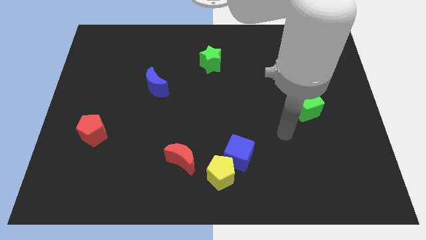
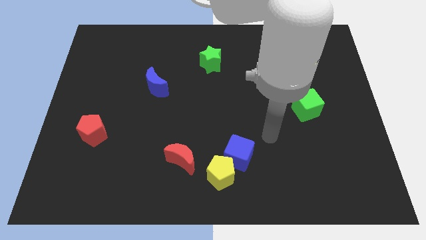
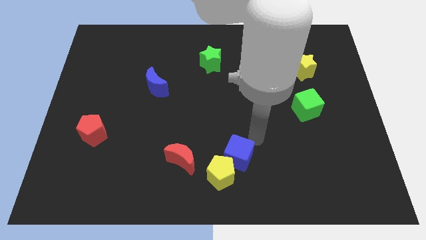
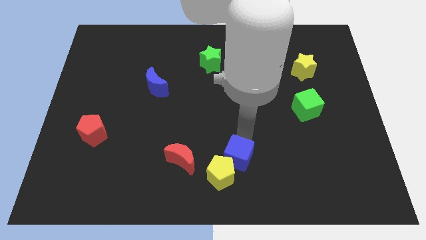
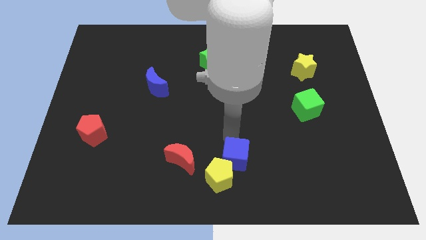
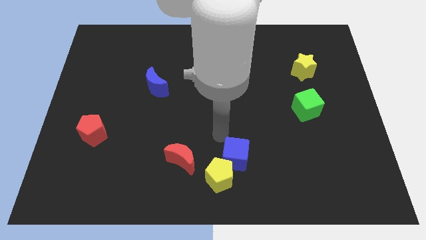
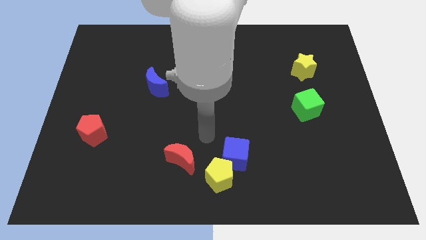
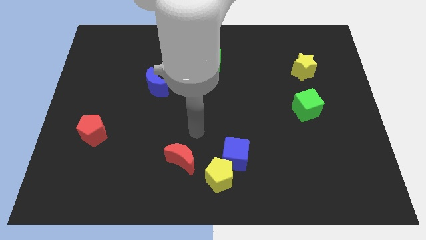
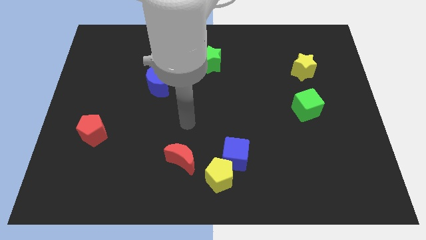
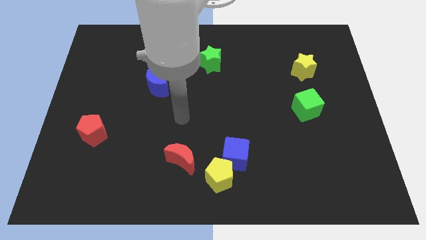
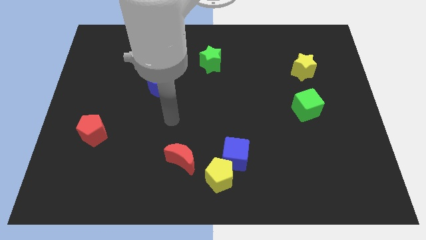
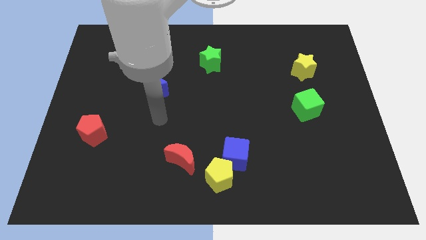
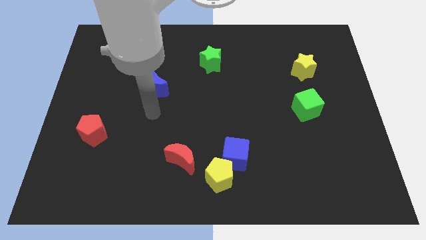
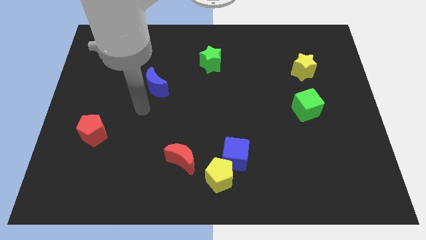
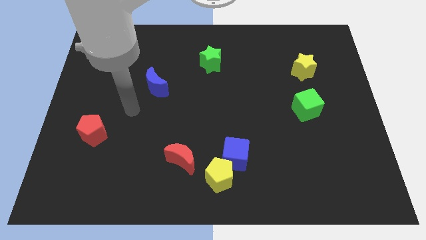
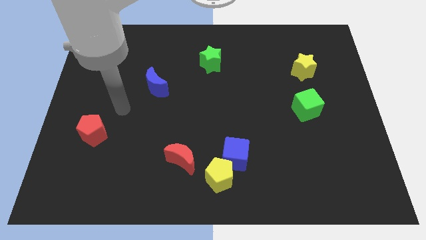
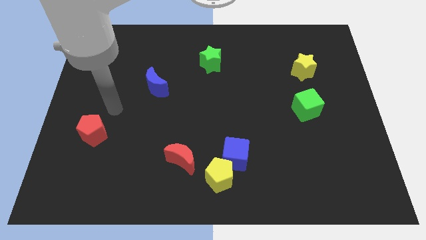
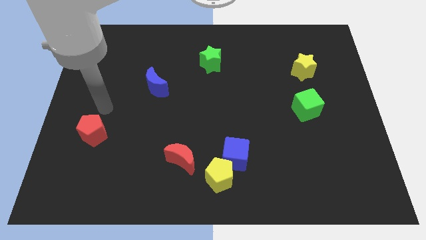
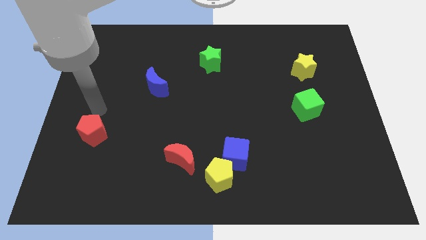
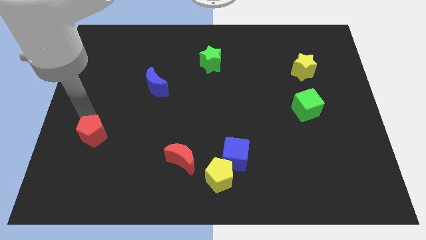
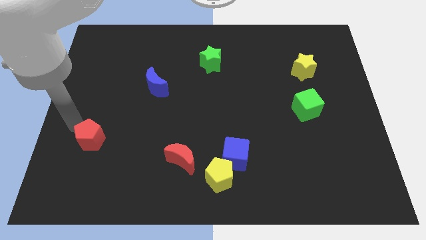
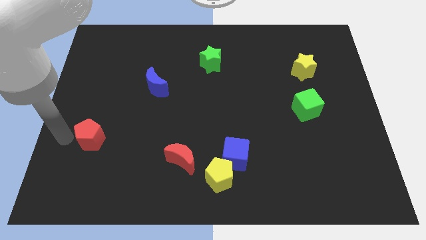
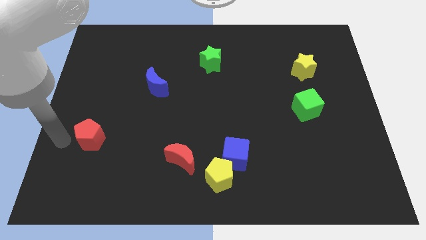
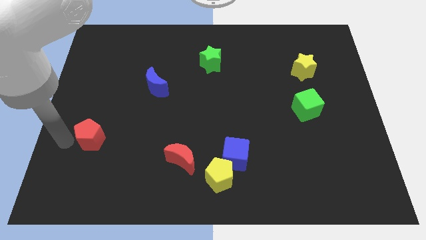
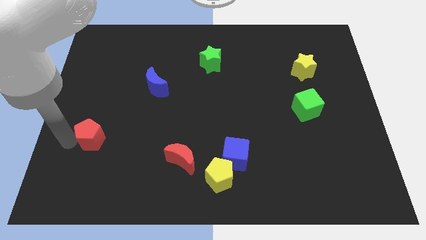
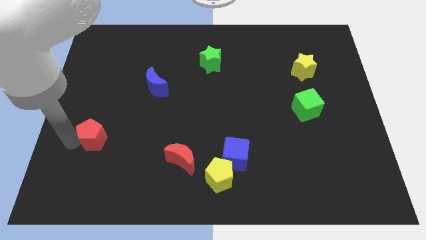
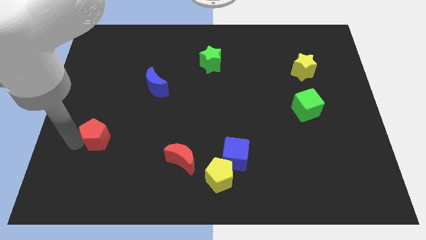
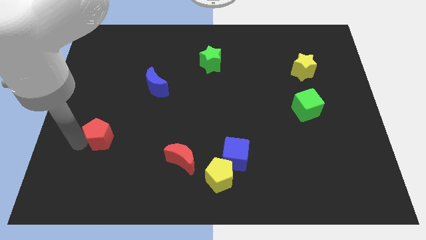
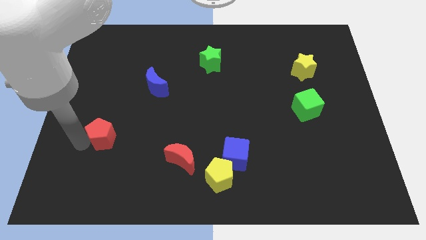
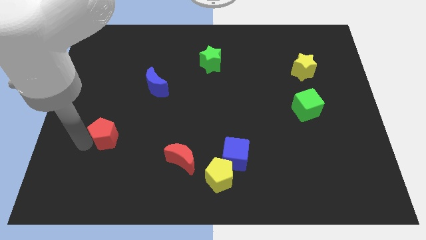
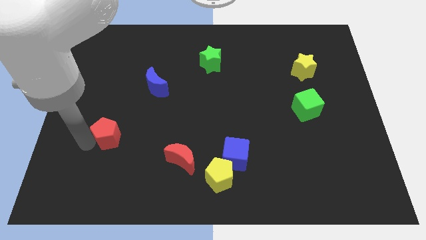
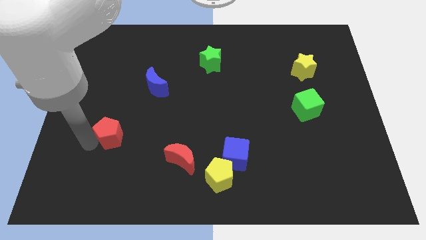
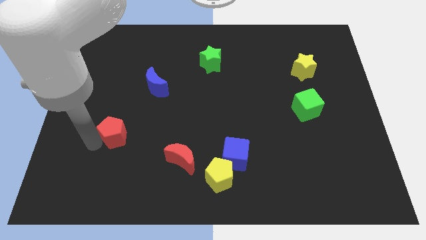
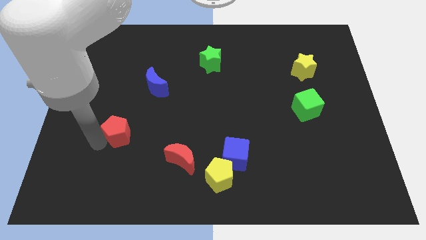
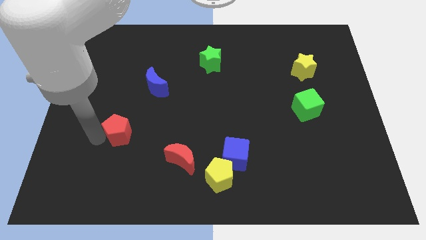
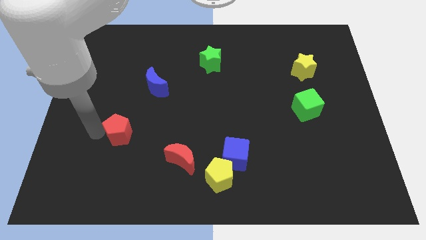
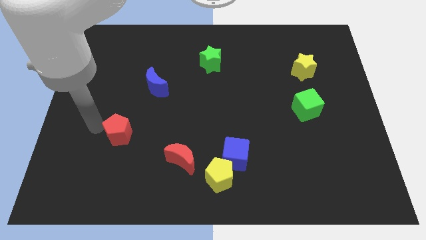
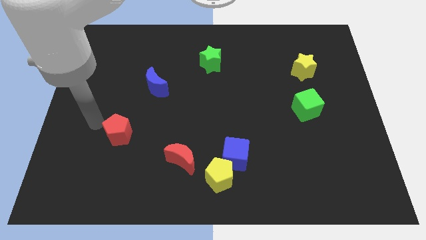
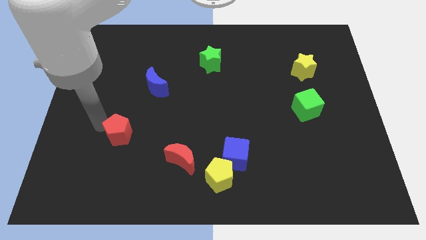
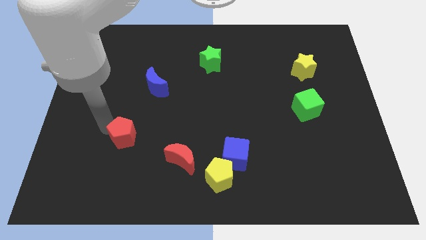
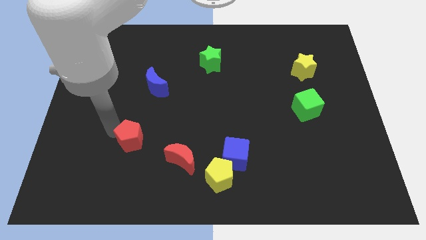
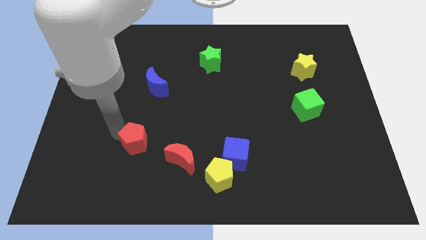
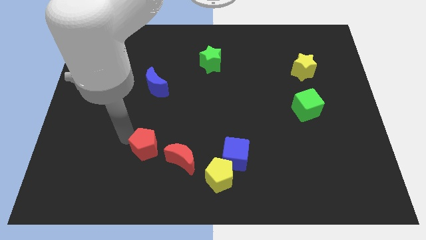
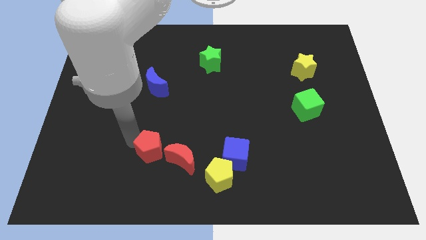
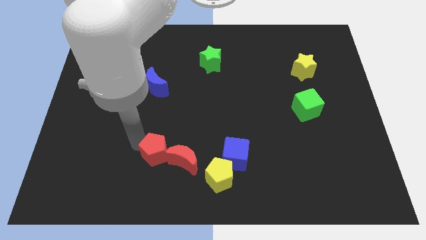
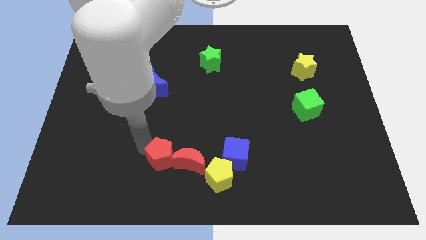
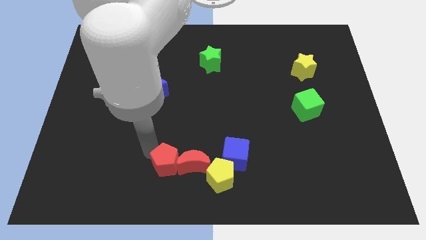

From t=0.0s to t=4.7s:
move the red pentagon towards the red moon

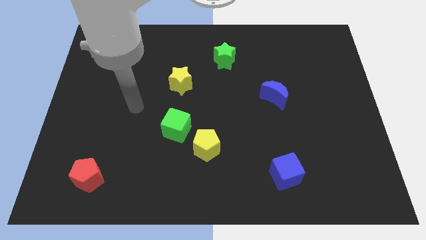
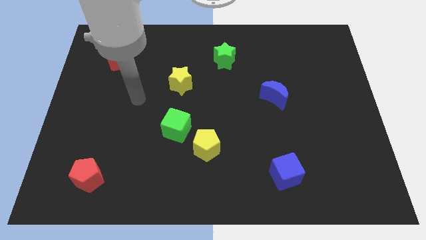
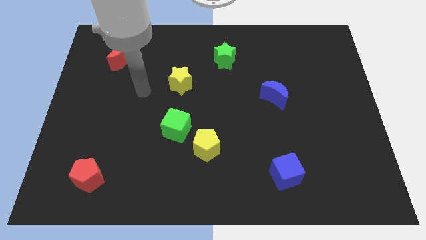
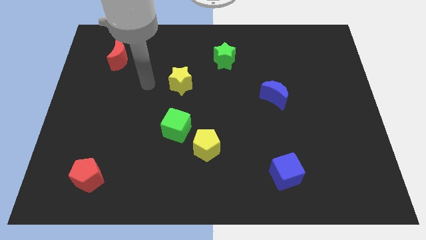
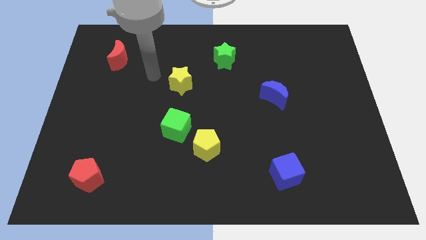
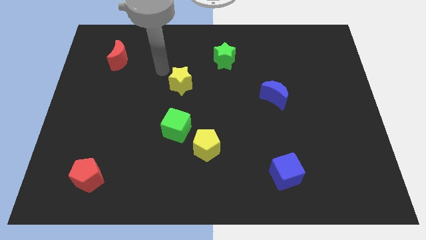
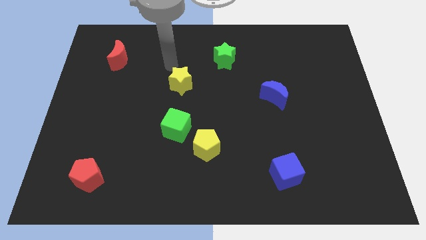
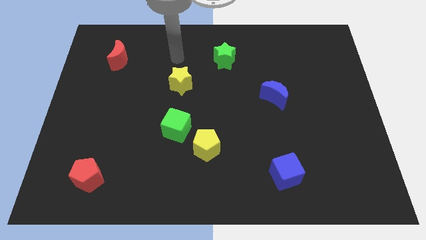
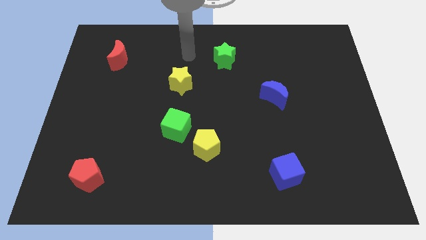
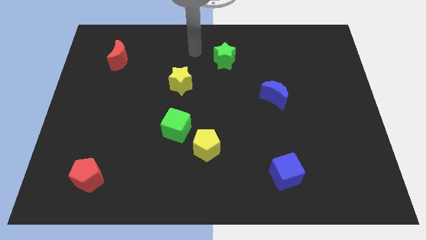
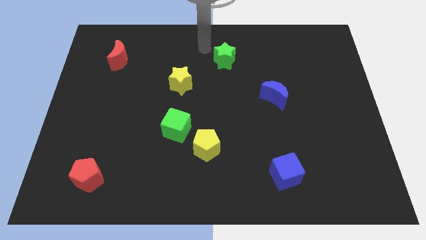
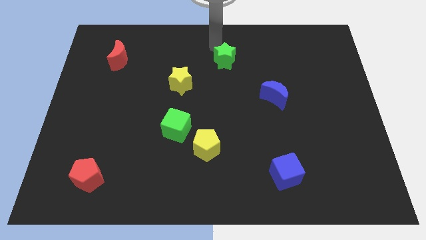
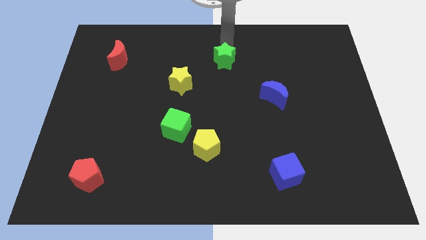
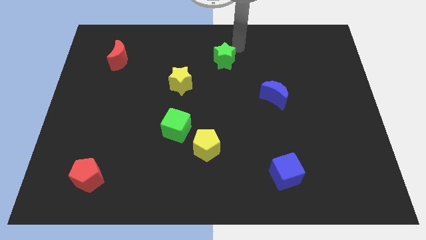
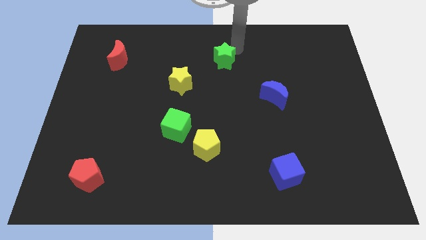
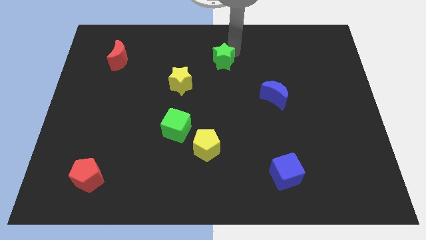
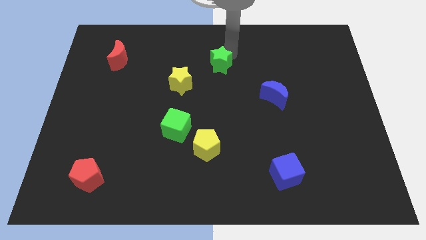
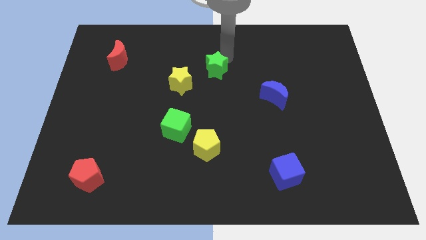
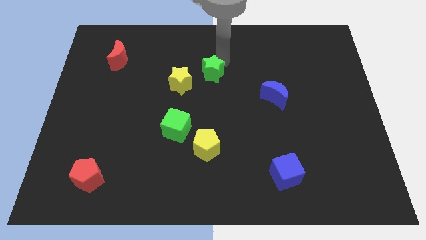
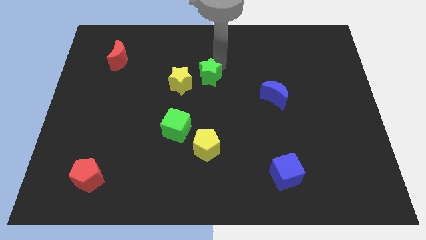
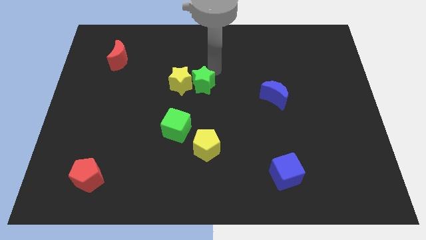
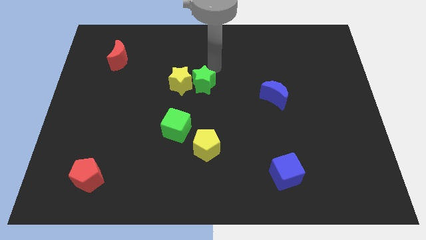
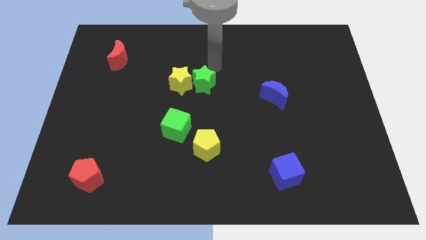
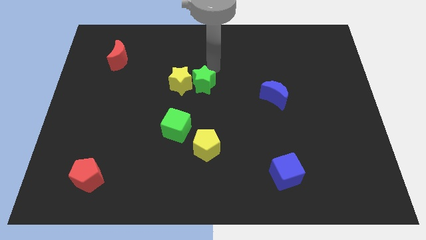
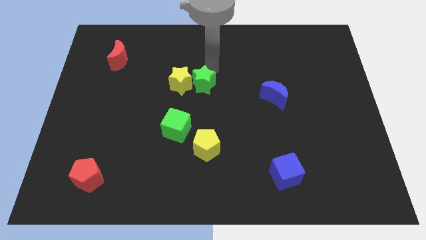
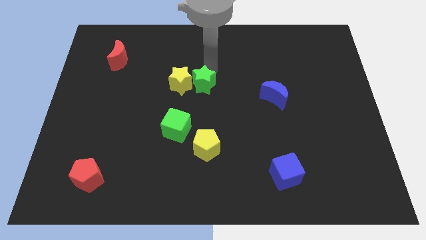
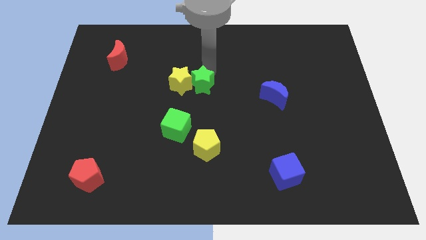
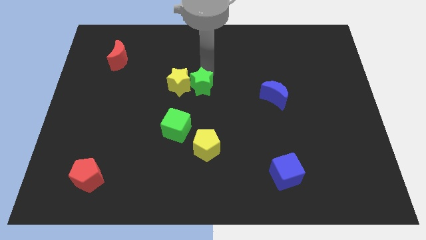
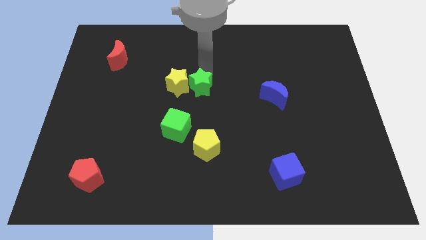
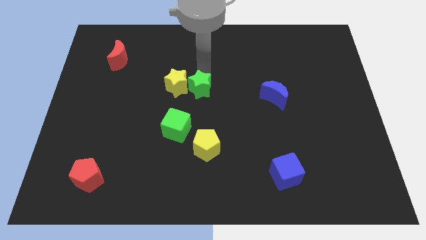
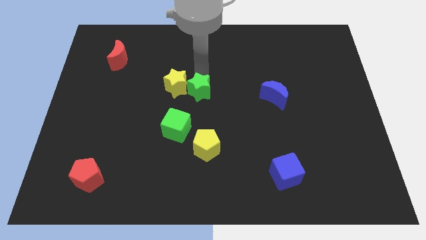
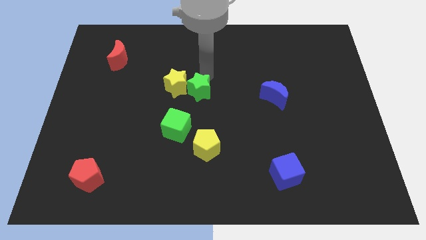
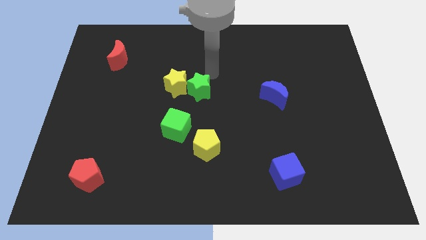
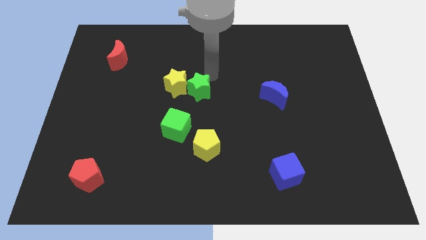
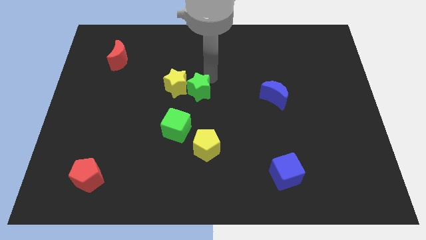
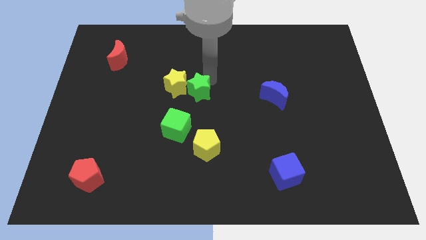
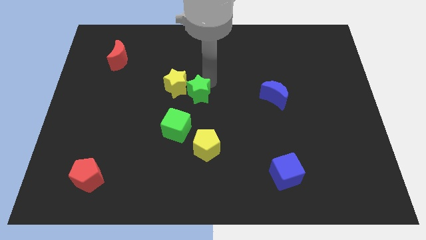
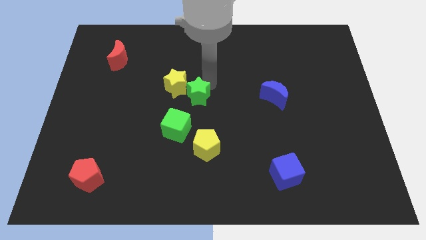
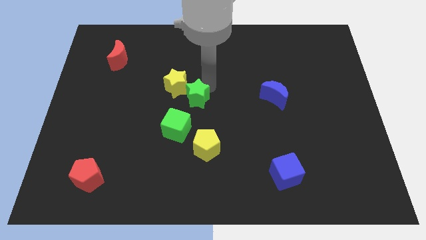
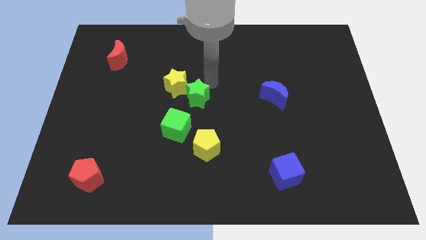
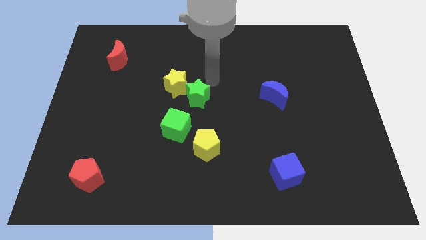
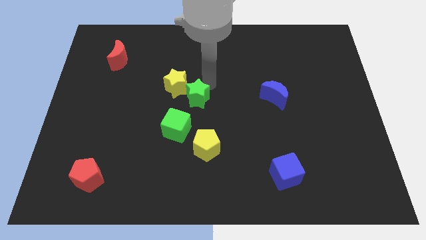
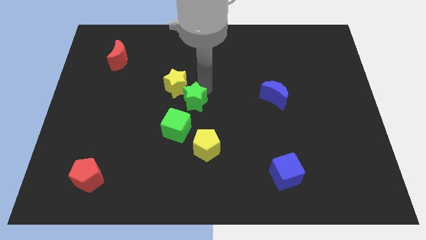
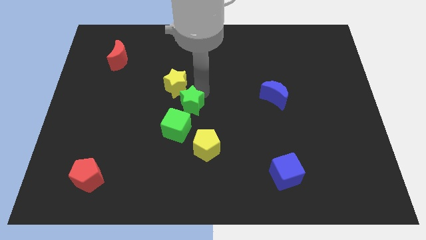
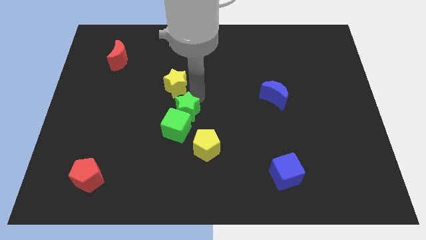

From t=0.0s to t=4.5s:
push the green star to the green cube
